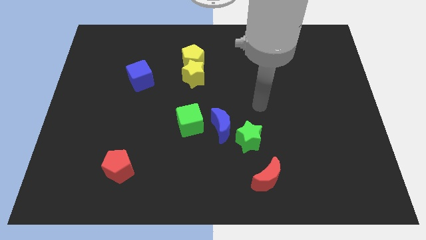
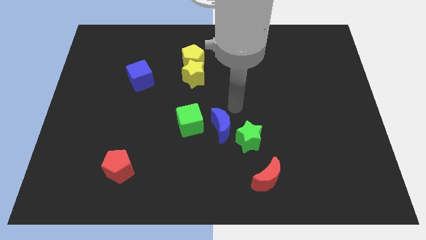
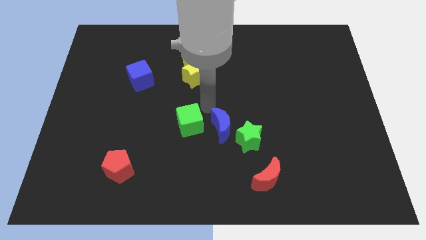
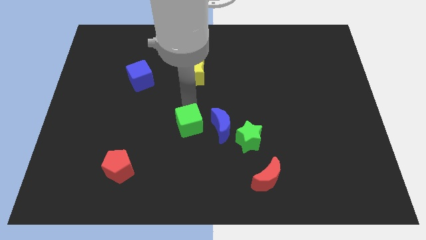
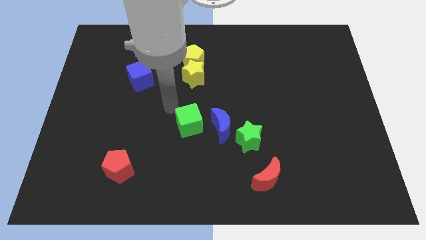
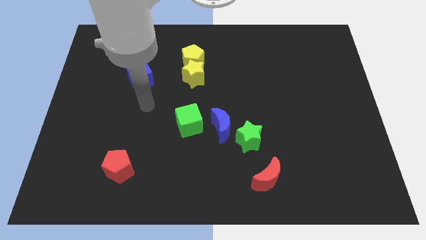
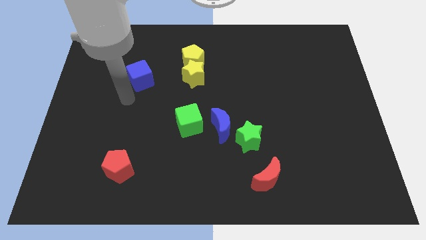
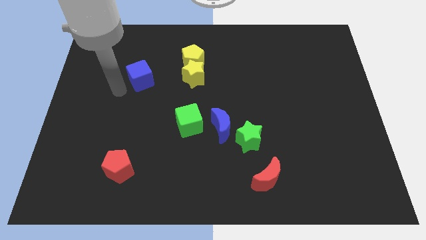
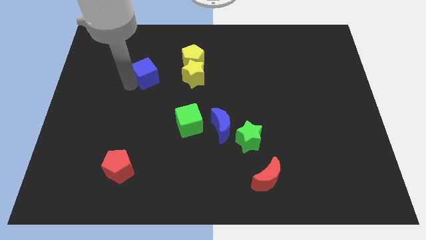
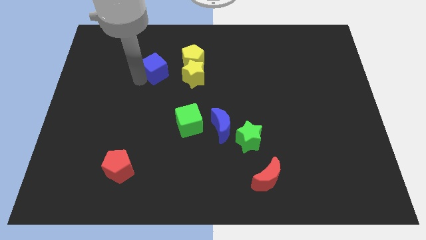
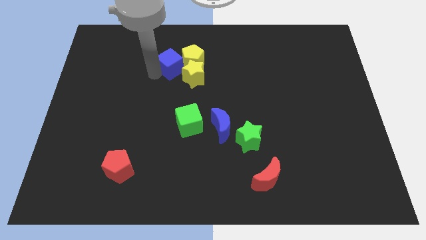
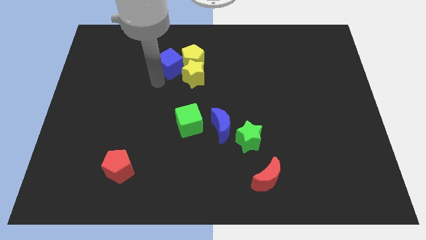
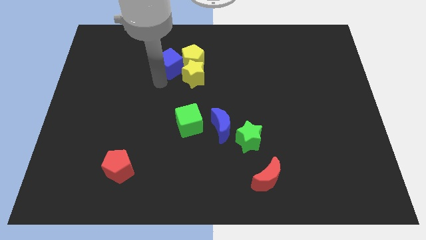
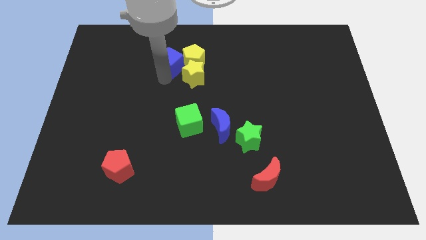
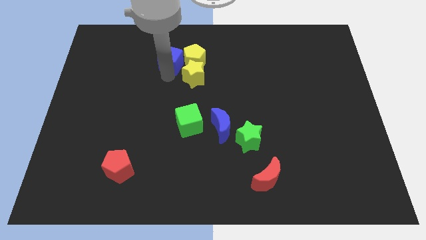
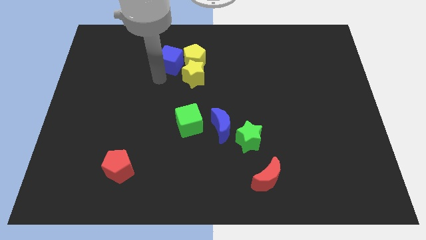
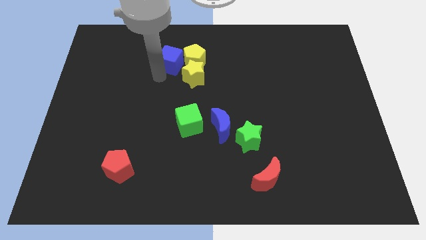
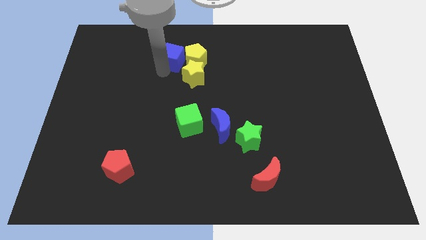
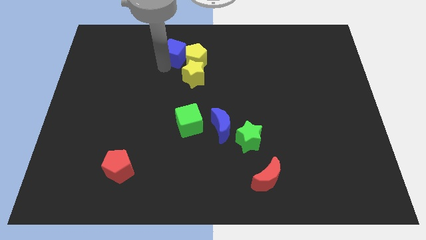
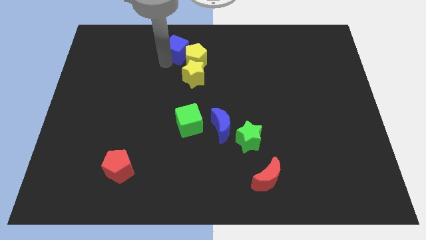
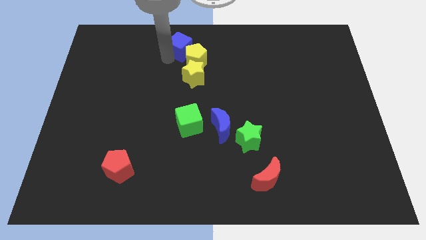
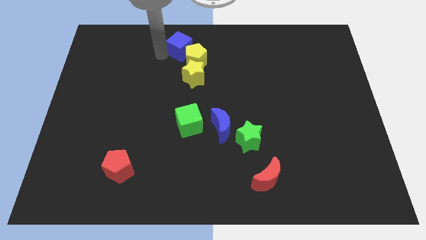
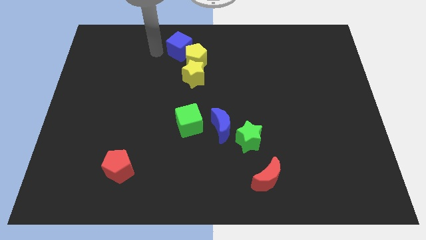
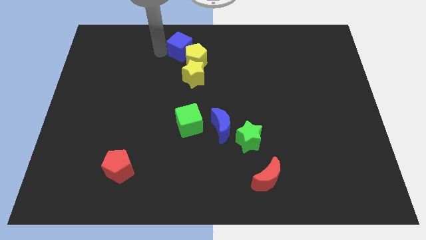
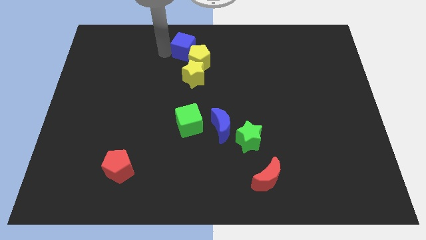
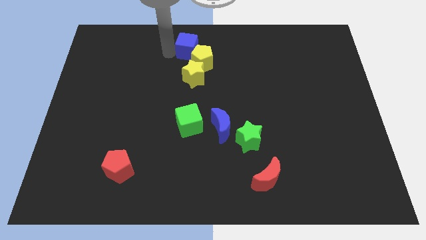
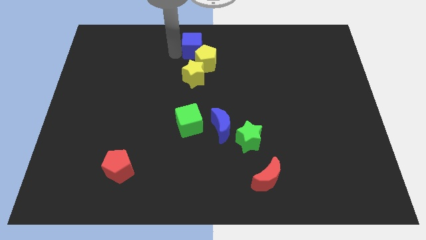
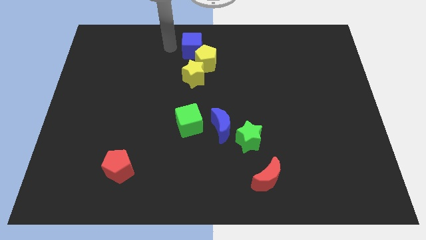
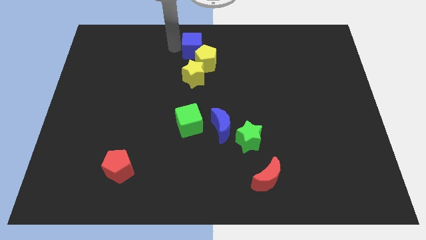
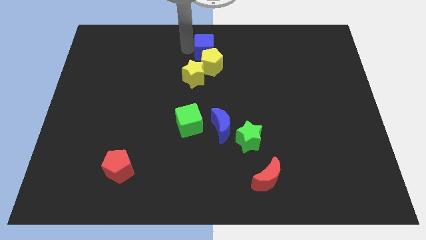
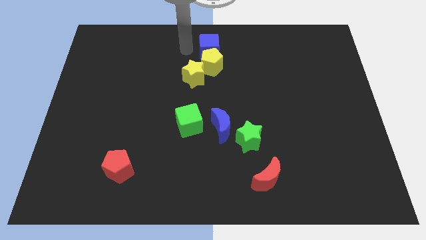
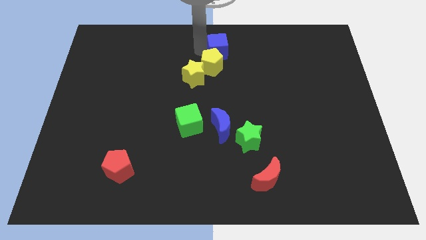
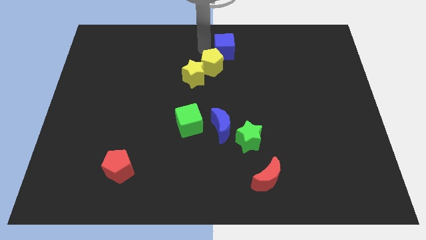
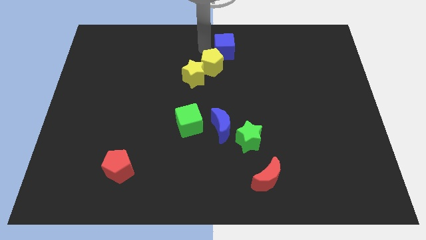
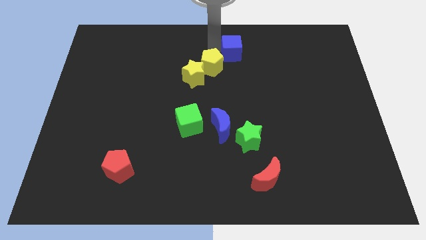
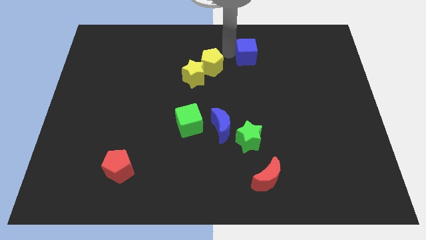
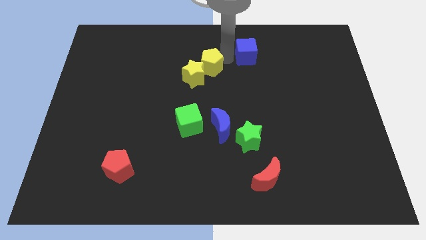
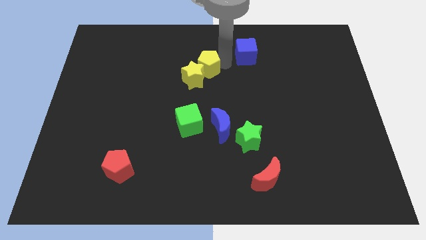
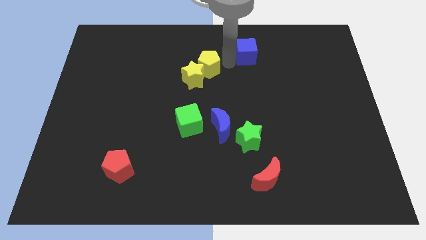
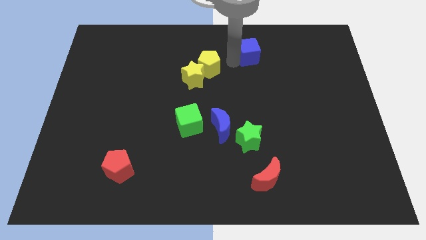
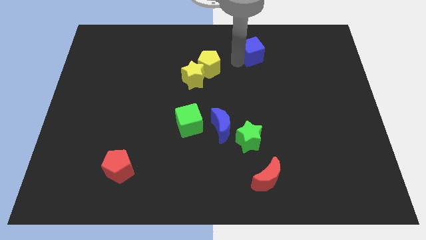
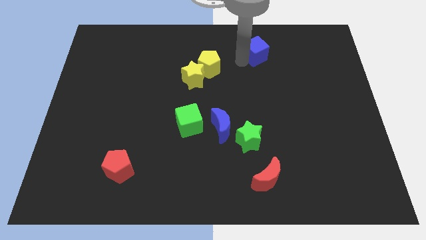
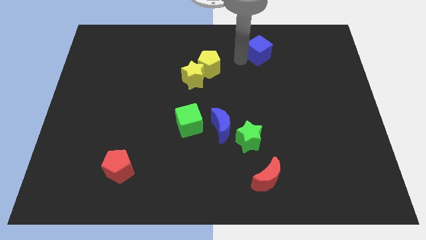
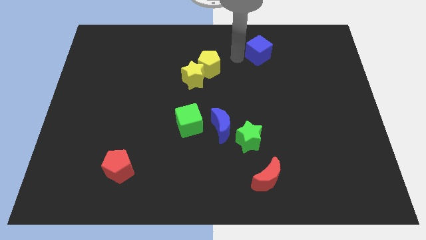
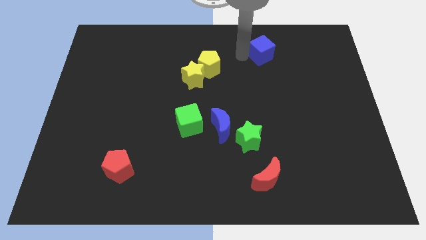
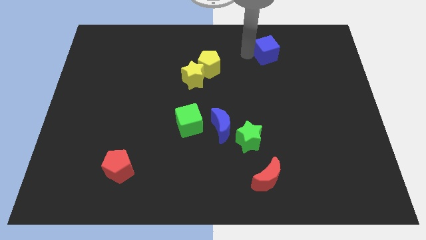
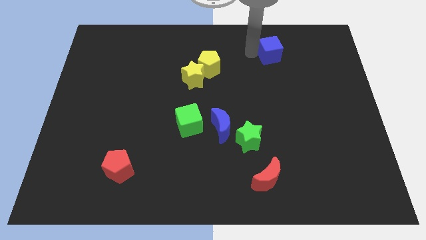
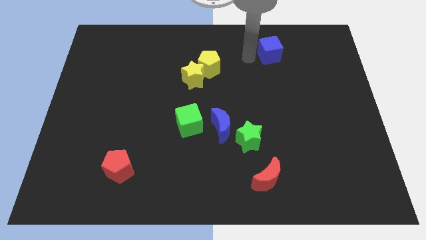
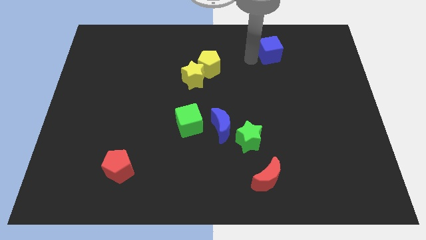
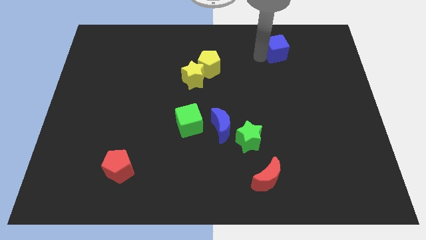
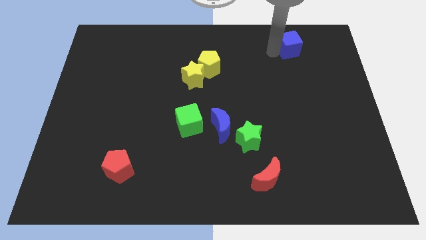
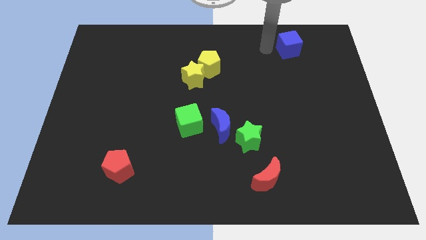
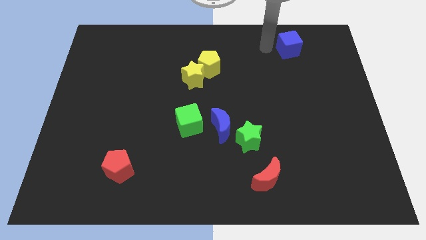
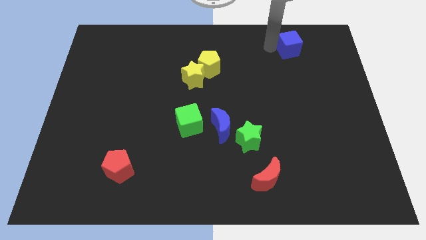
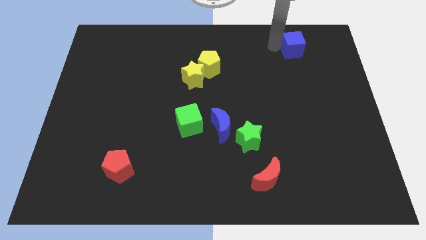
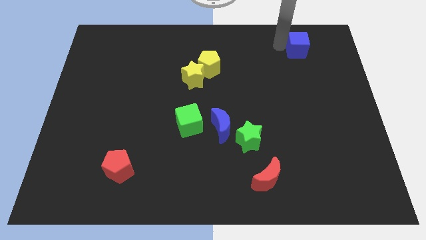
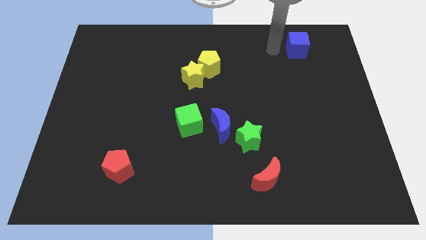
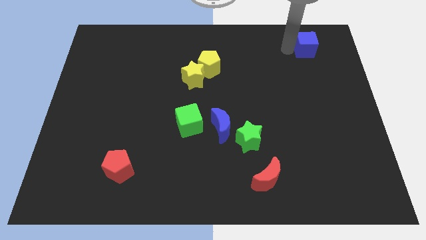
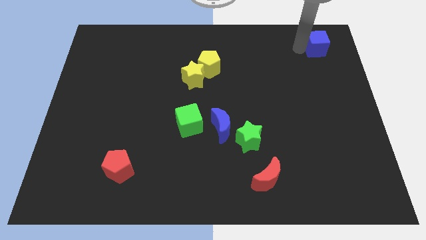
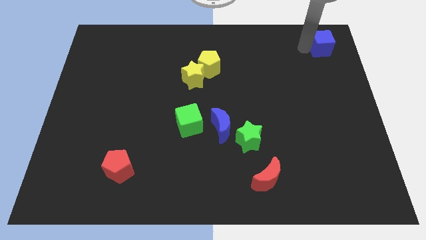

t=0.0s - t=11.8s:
put the blue cube to the top right
